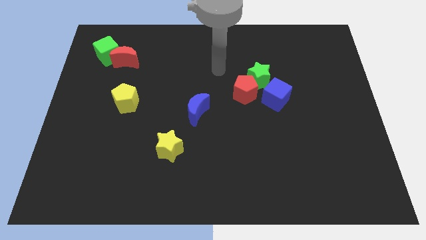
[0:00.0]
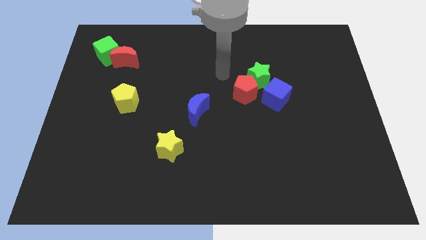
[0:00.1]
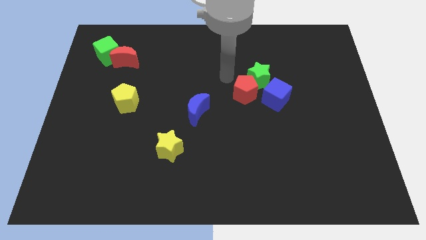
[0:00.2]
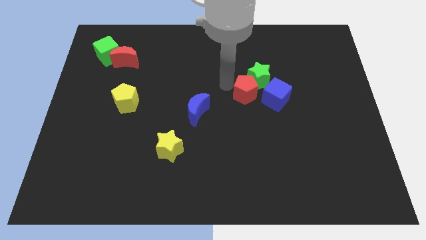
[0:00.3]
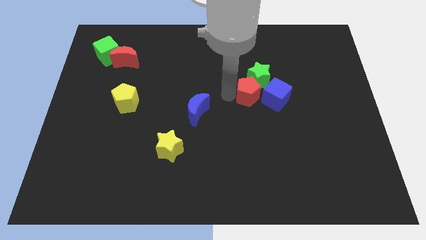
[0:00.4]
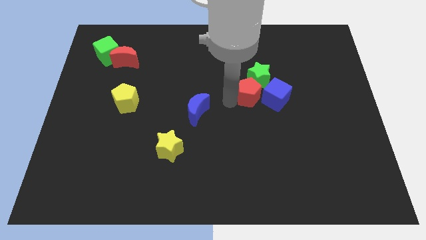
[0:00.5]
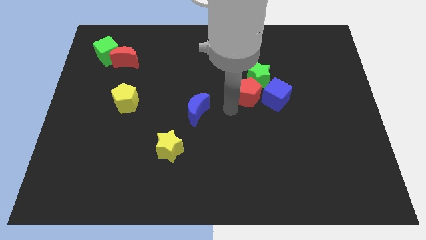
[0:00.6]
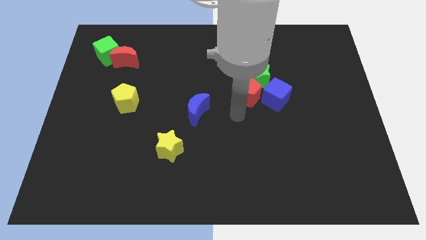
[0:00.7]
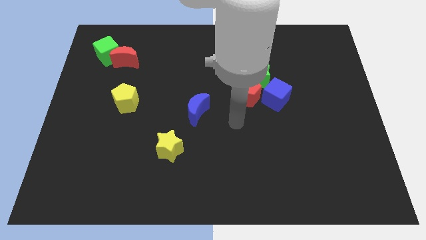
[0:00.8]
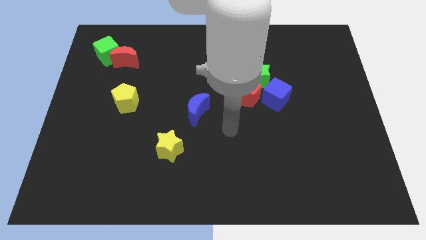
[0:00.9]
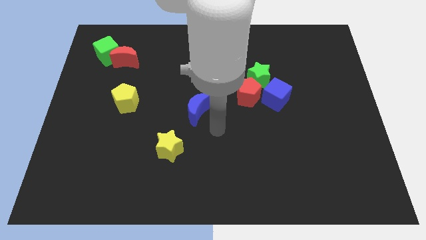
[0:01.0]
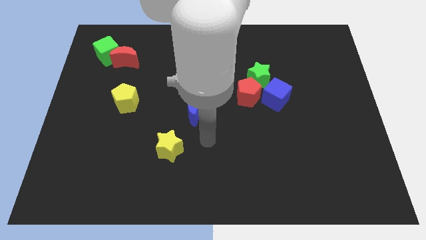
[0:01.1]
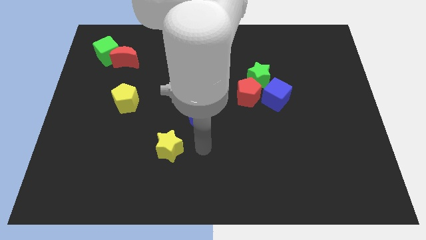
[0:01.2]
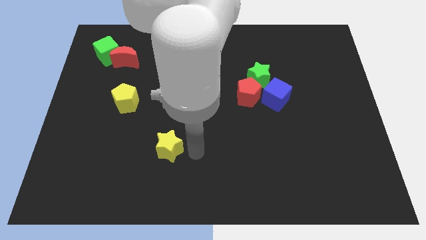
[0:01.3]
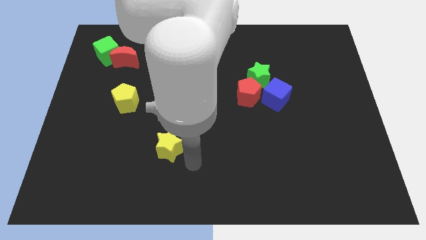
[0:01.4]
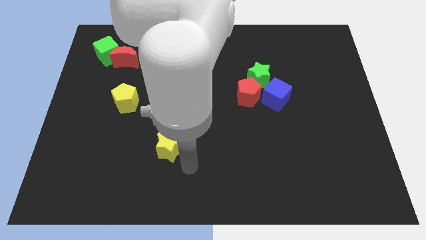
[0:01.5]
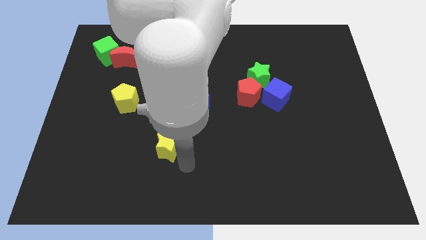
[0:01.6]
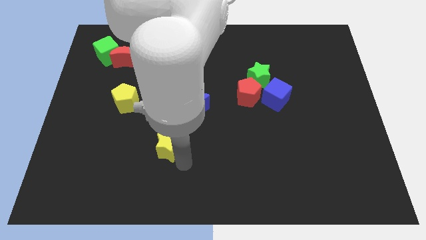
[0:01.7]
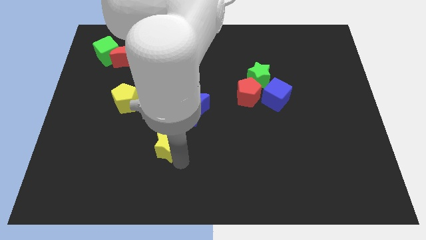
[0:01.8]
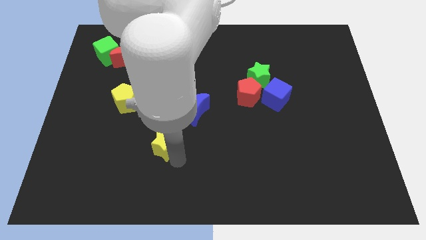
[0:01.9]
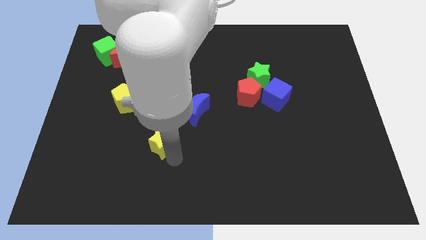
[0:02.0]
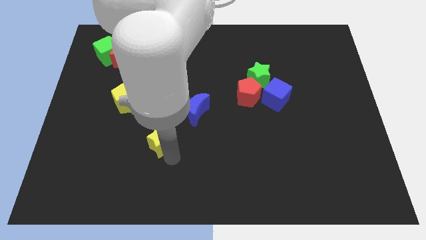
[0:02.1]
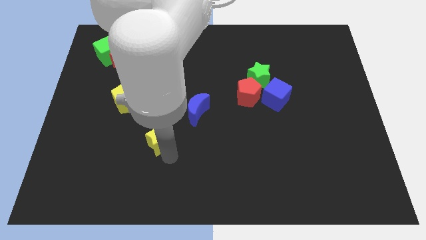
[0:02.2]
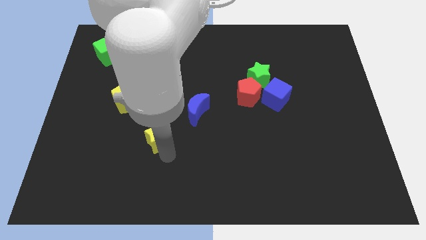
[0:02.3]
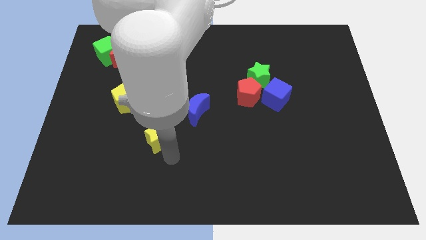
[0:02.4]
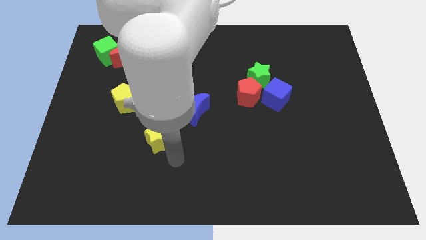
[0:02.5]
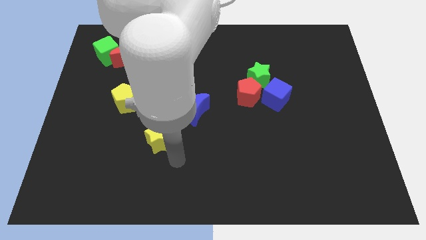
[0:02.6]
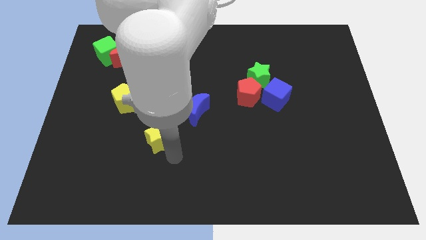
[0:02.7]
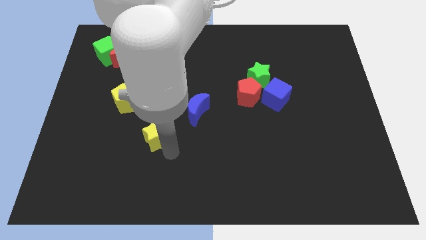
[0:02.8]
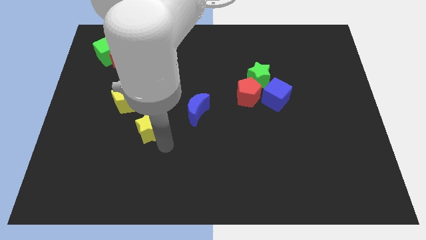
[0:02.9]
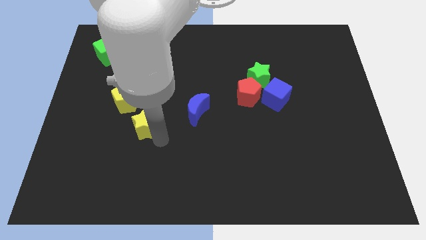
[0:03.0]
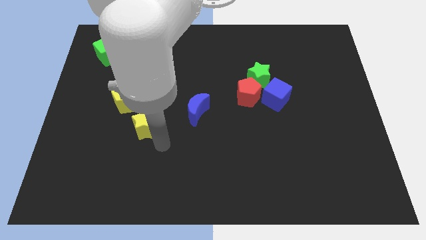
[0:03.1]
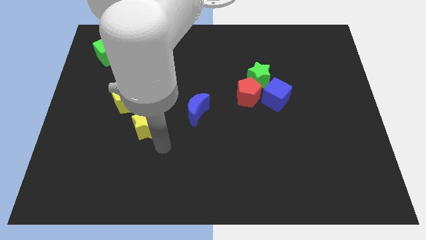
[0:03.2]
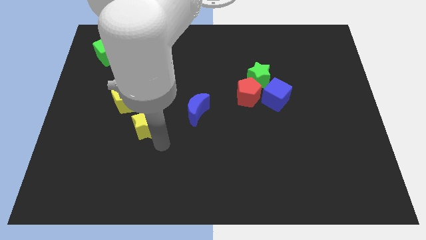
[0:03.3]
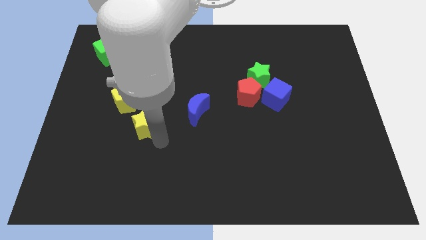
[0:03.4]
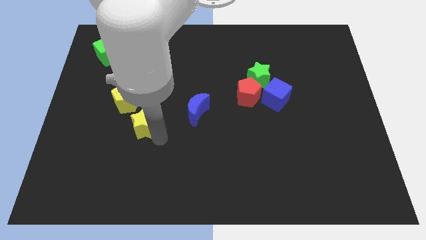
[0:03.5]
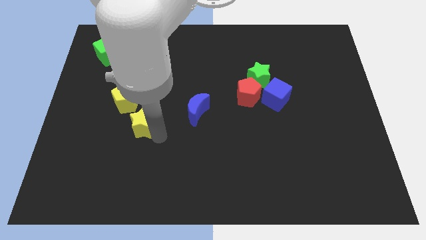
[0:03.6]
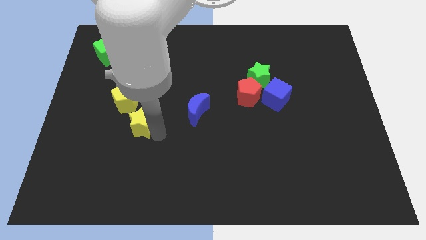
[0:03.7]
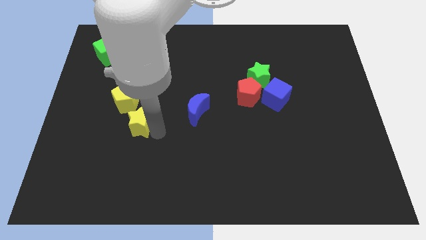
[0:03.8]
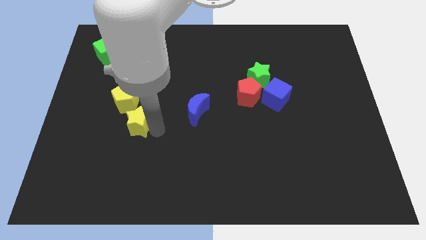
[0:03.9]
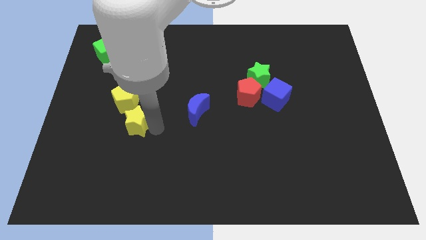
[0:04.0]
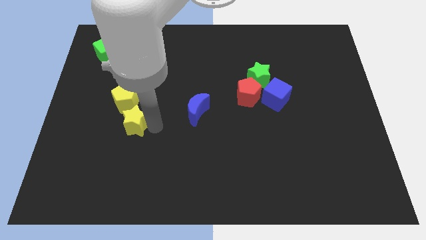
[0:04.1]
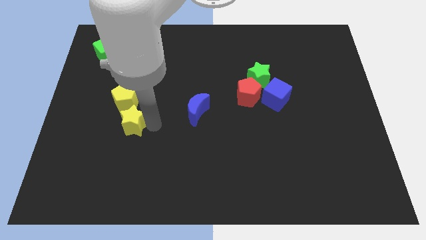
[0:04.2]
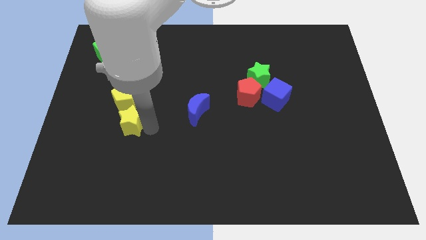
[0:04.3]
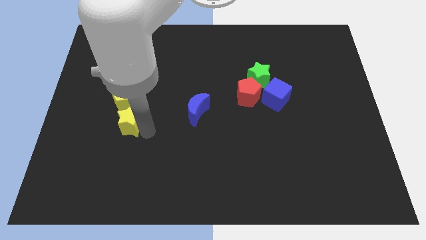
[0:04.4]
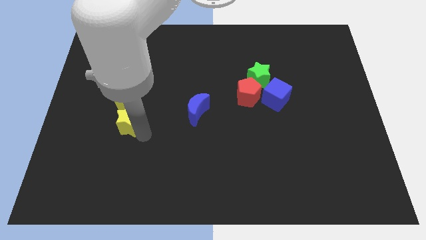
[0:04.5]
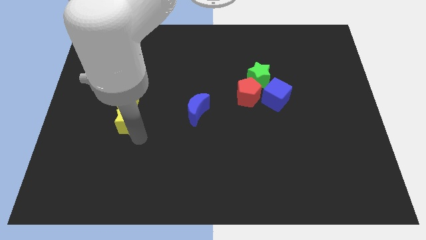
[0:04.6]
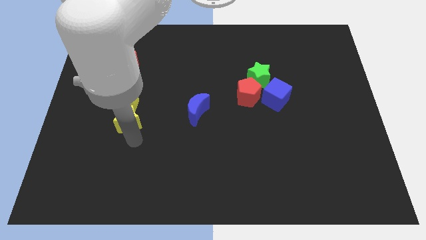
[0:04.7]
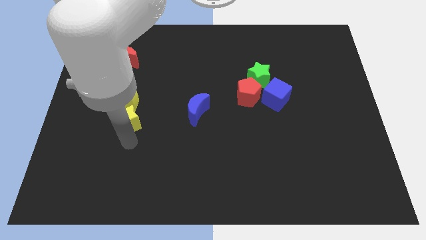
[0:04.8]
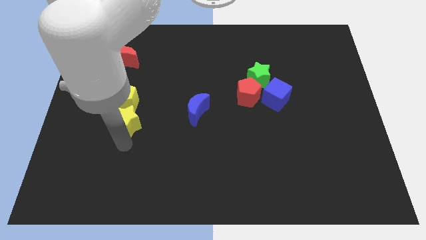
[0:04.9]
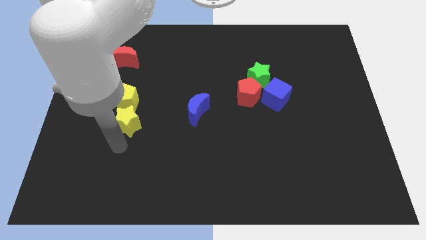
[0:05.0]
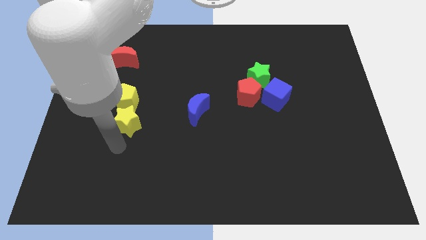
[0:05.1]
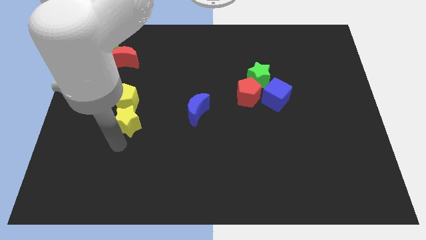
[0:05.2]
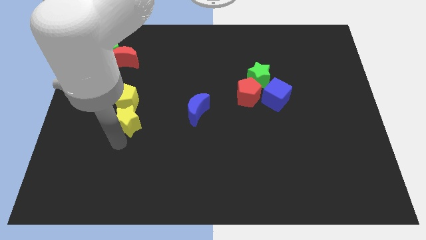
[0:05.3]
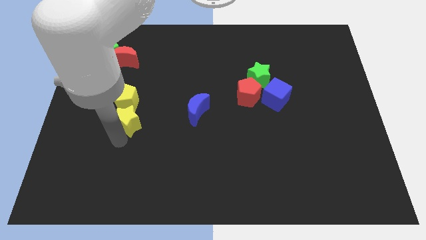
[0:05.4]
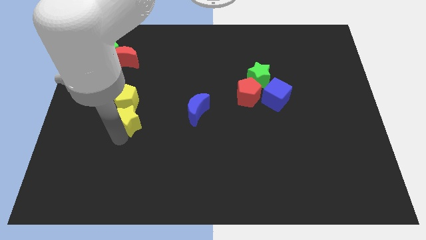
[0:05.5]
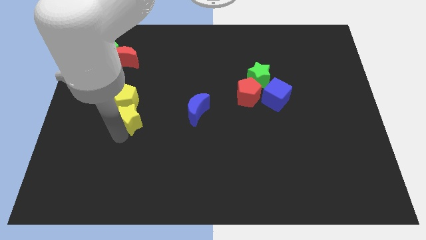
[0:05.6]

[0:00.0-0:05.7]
push the yellow star next to the yellow pentagon

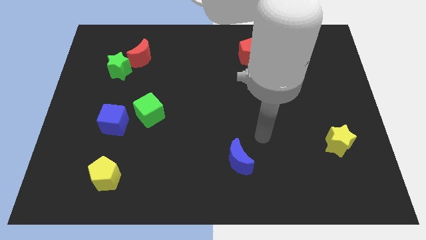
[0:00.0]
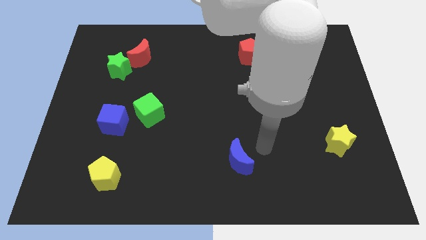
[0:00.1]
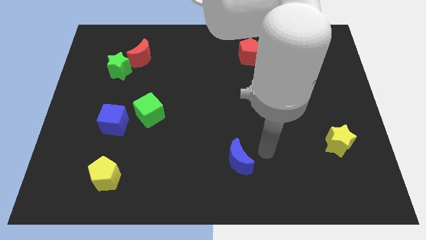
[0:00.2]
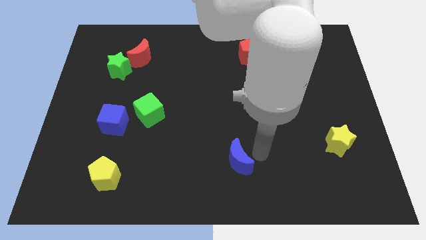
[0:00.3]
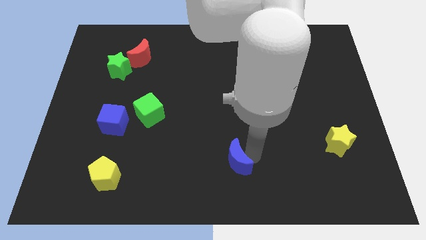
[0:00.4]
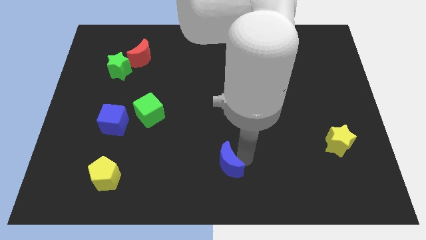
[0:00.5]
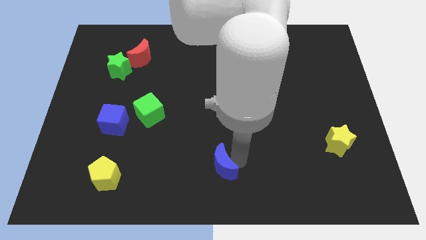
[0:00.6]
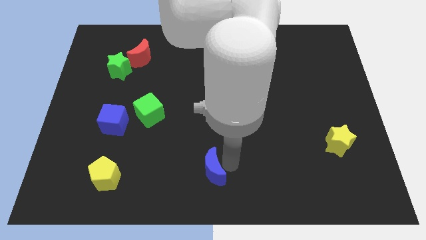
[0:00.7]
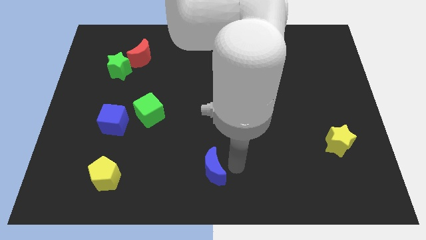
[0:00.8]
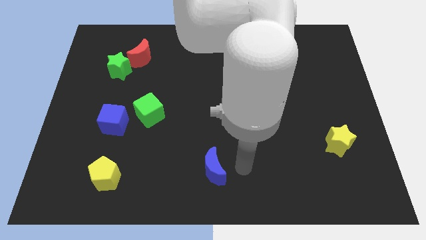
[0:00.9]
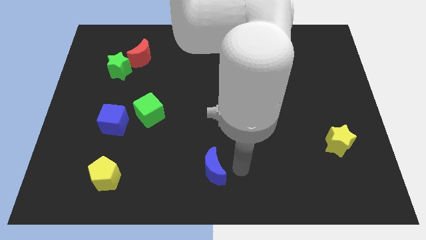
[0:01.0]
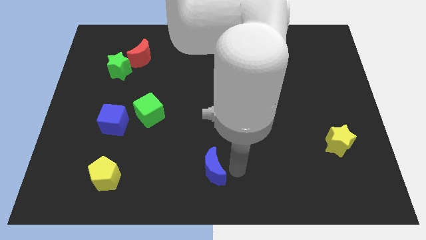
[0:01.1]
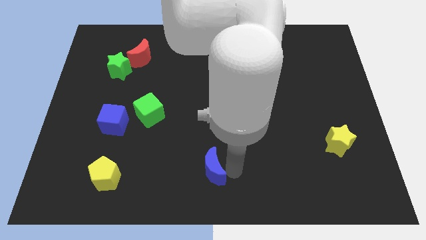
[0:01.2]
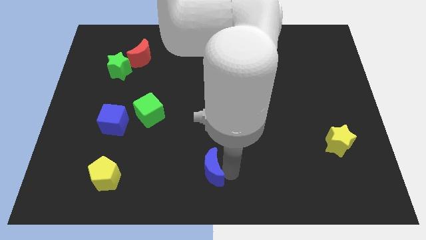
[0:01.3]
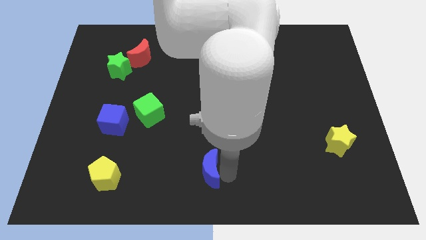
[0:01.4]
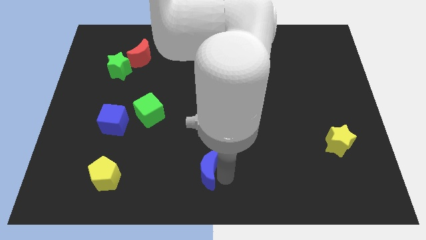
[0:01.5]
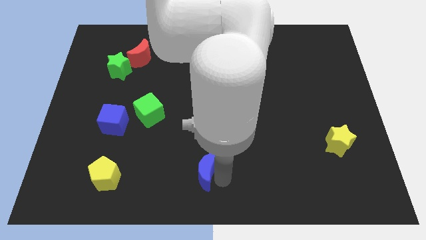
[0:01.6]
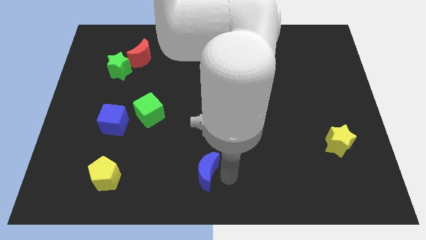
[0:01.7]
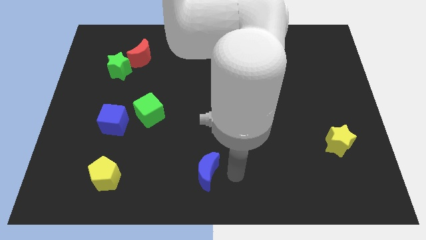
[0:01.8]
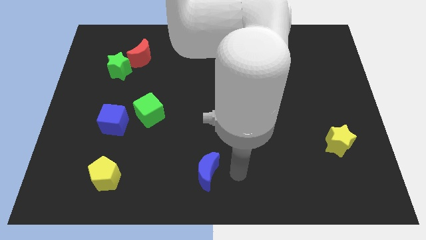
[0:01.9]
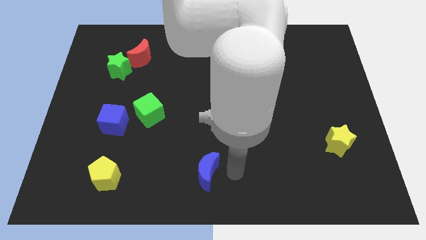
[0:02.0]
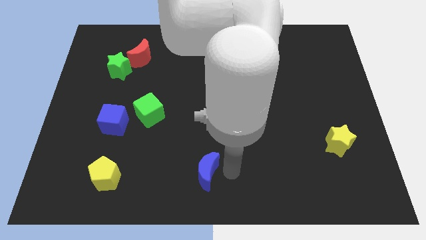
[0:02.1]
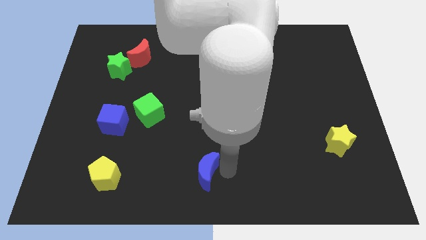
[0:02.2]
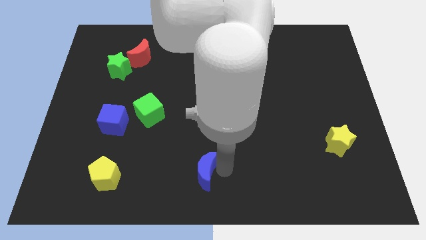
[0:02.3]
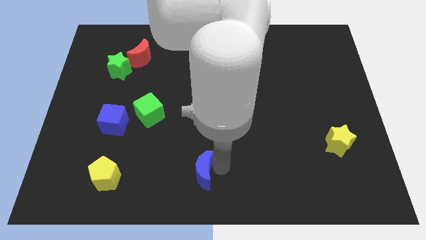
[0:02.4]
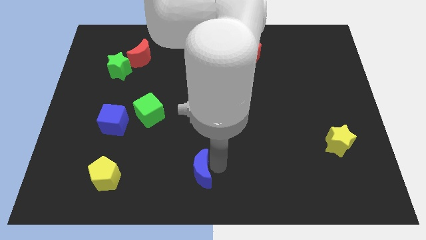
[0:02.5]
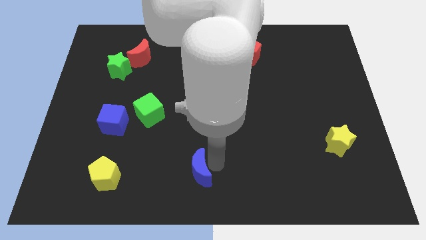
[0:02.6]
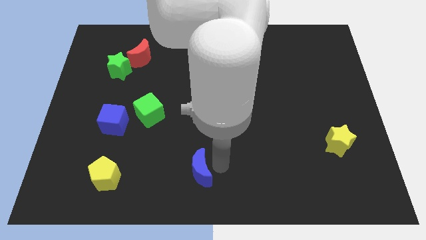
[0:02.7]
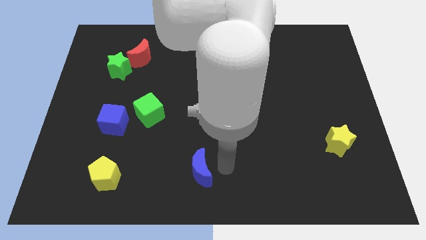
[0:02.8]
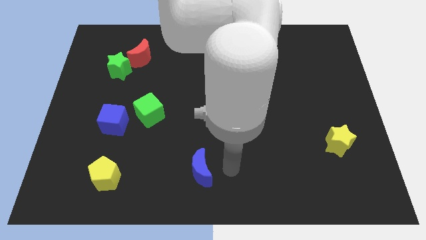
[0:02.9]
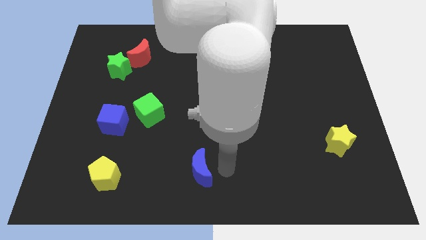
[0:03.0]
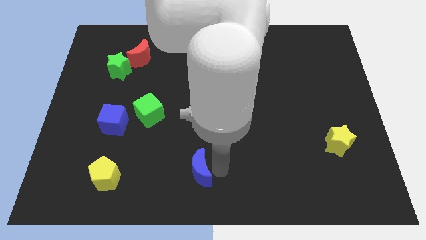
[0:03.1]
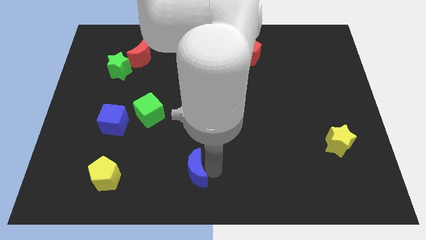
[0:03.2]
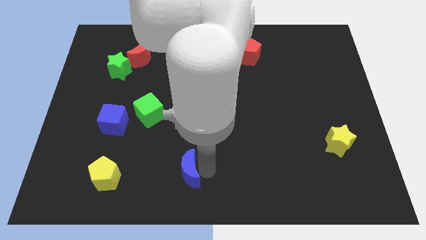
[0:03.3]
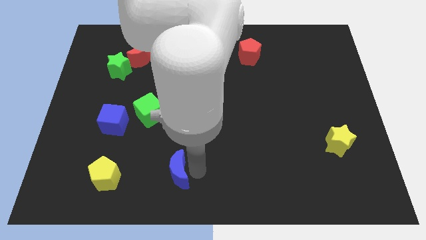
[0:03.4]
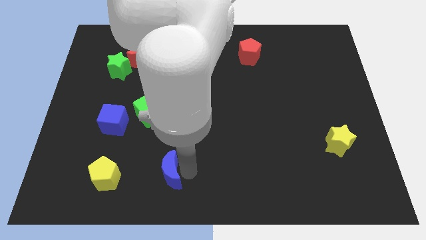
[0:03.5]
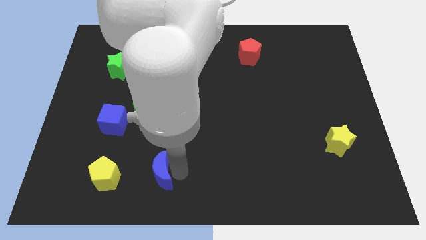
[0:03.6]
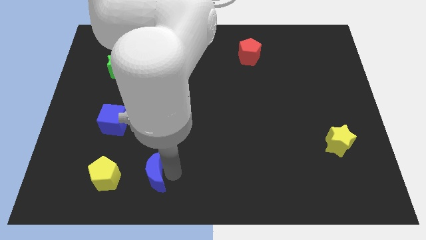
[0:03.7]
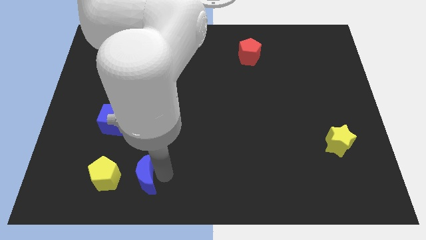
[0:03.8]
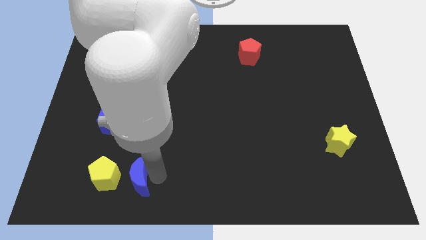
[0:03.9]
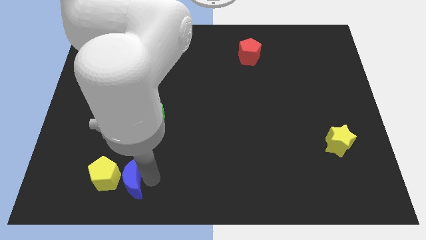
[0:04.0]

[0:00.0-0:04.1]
push the blue moon close to the yellow pentagon
